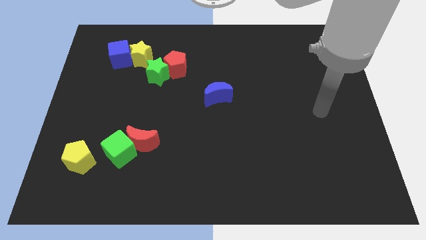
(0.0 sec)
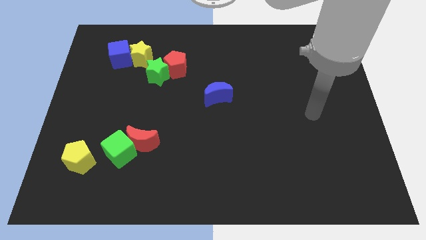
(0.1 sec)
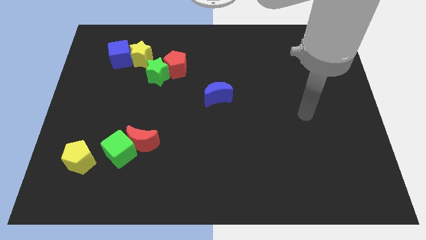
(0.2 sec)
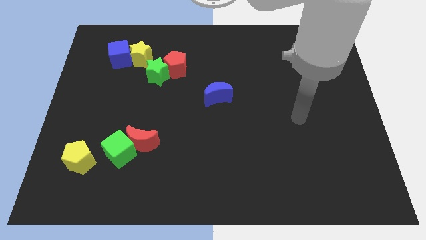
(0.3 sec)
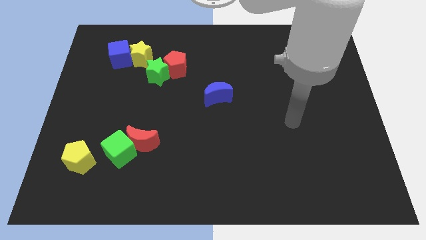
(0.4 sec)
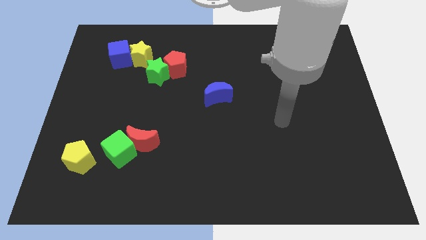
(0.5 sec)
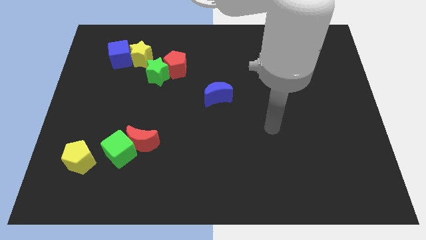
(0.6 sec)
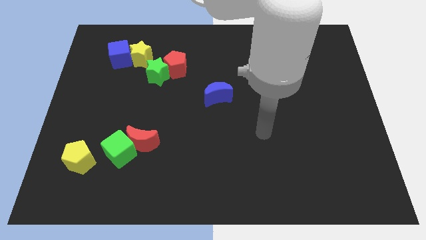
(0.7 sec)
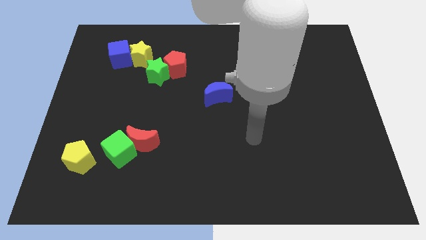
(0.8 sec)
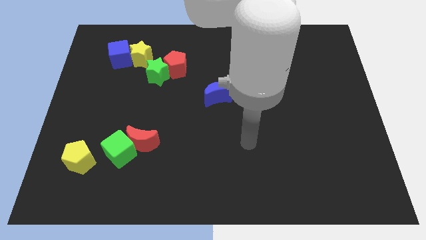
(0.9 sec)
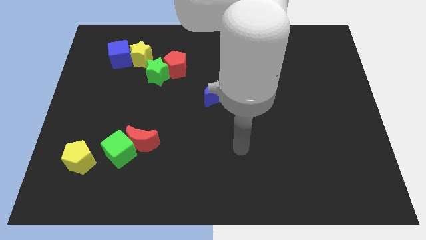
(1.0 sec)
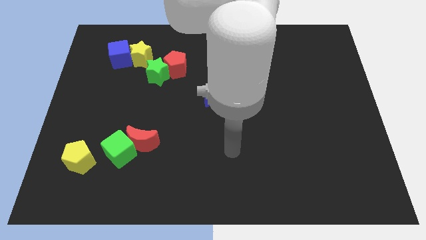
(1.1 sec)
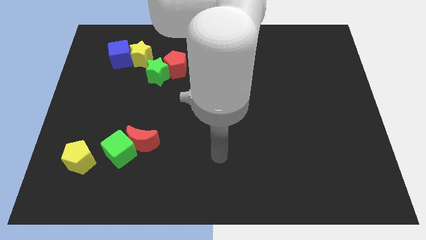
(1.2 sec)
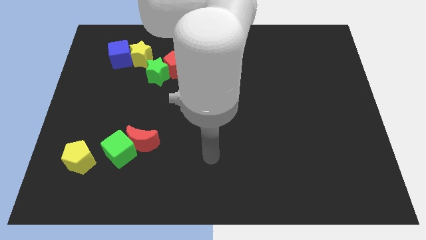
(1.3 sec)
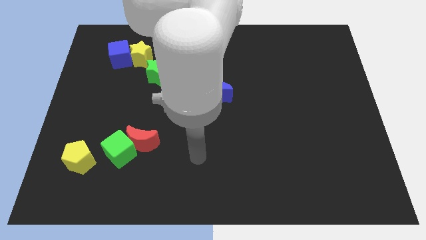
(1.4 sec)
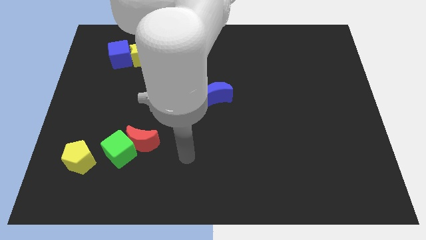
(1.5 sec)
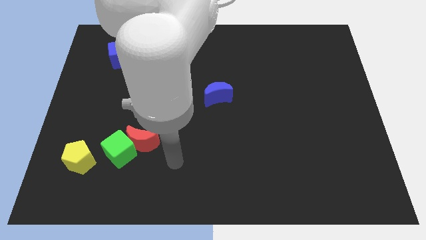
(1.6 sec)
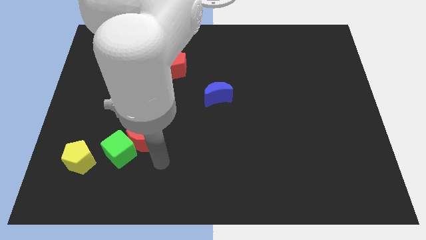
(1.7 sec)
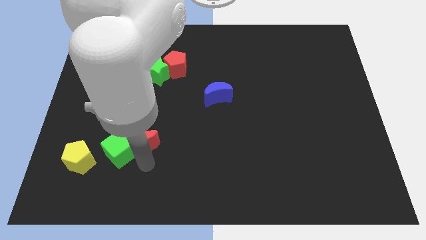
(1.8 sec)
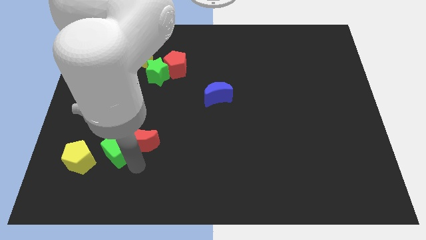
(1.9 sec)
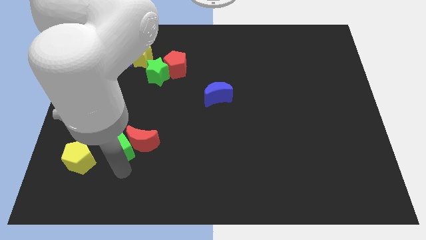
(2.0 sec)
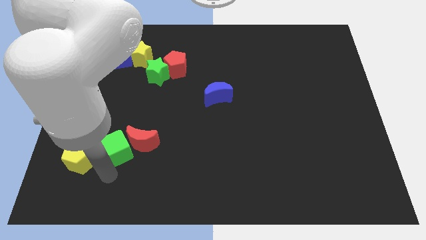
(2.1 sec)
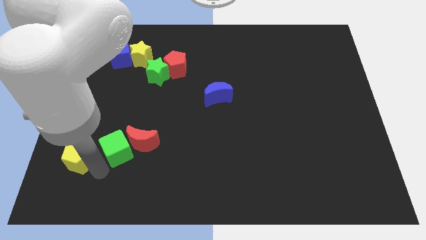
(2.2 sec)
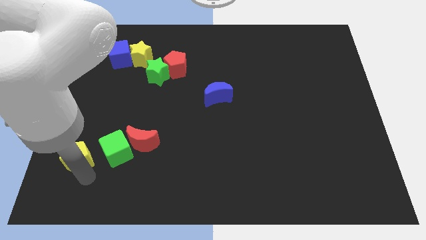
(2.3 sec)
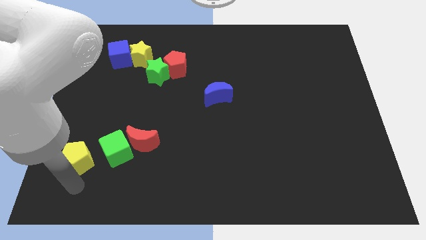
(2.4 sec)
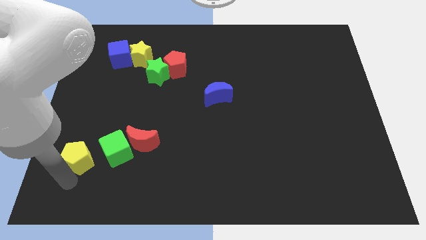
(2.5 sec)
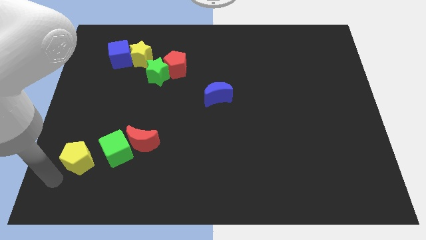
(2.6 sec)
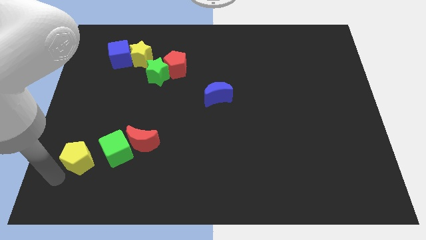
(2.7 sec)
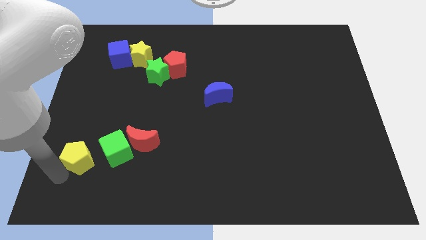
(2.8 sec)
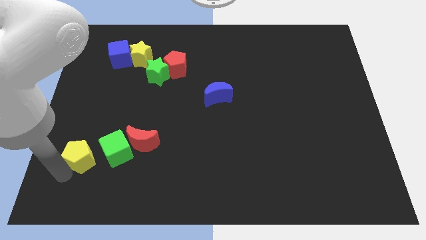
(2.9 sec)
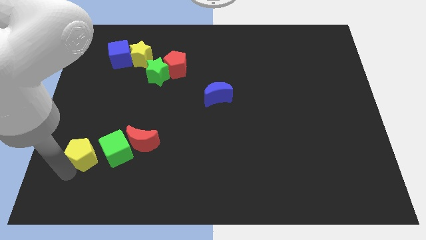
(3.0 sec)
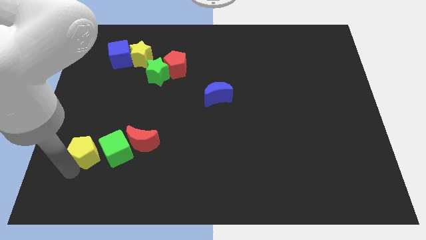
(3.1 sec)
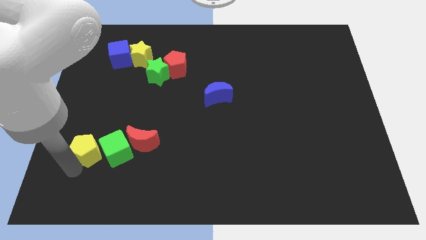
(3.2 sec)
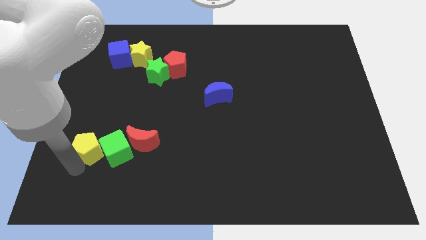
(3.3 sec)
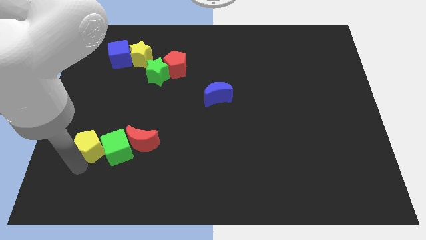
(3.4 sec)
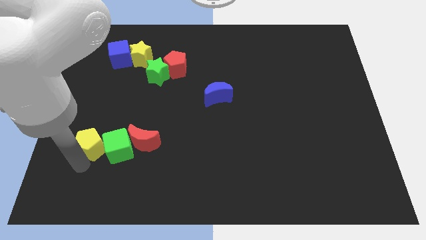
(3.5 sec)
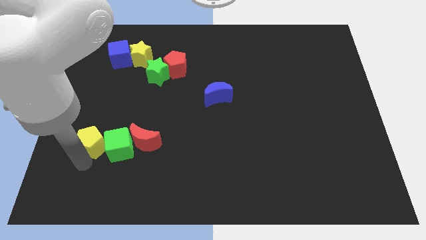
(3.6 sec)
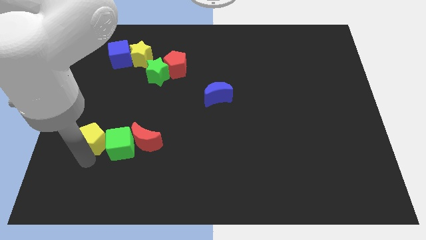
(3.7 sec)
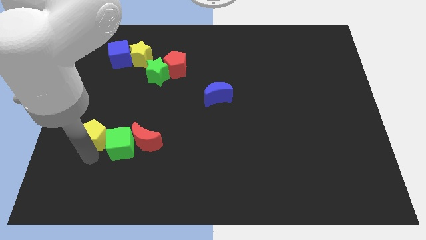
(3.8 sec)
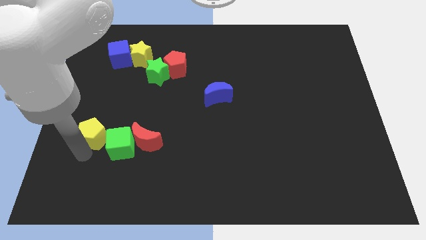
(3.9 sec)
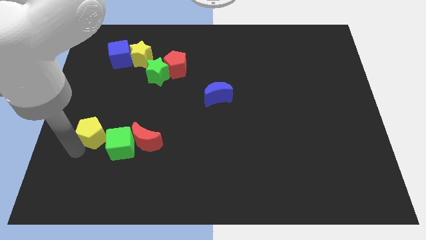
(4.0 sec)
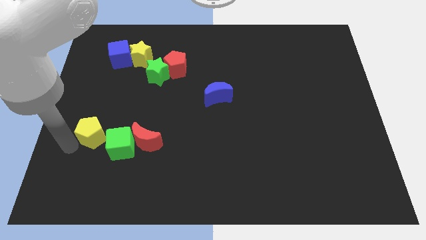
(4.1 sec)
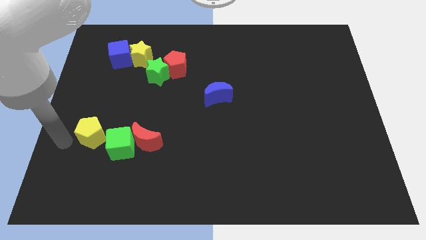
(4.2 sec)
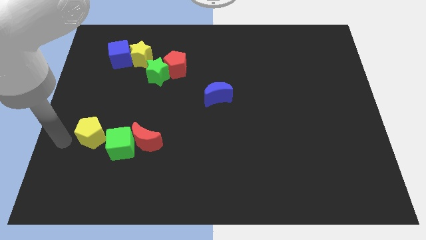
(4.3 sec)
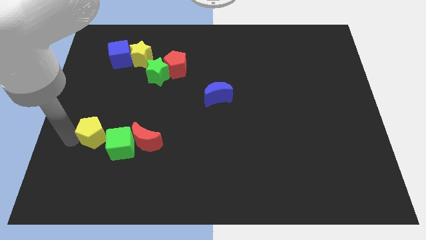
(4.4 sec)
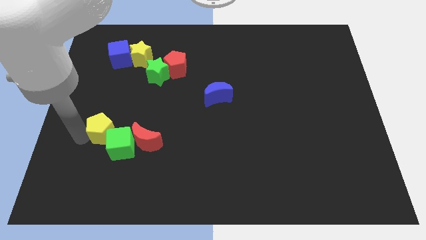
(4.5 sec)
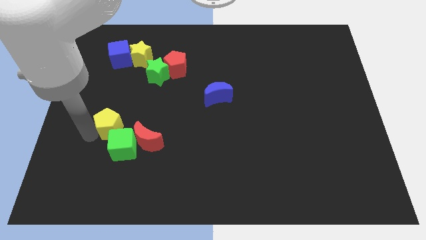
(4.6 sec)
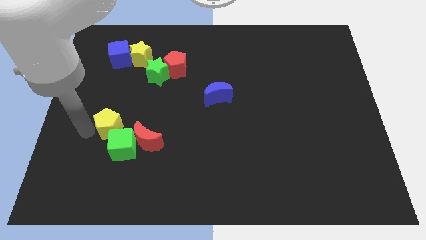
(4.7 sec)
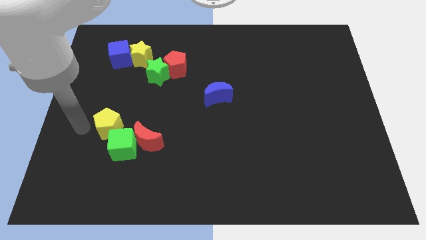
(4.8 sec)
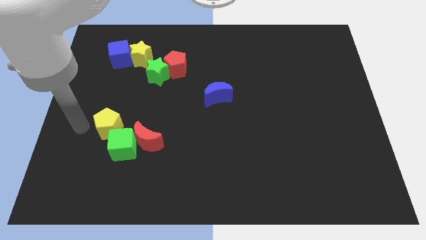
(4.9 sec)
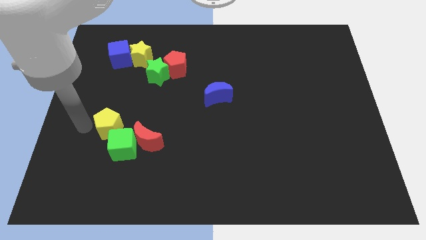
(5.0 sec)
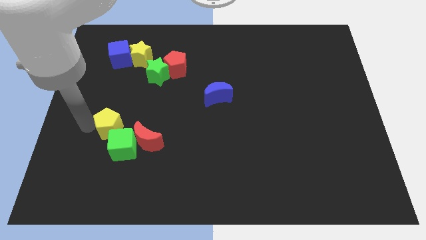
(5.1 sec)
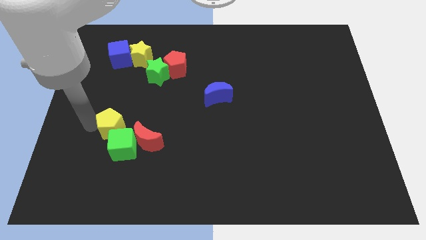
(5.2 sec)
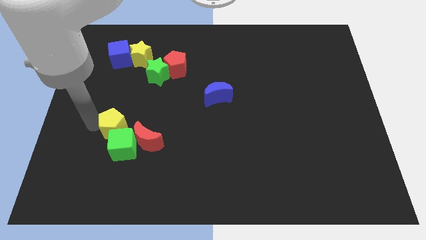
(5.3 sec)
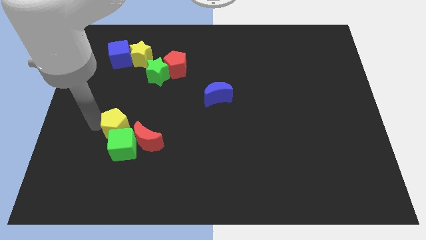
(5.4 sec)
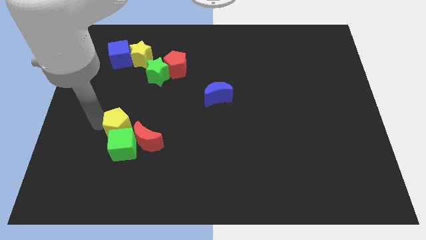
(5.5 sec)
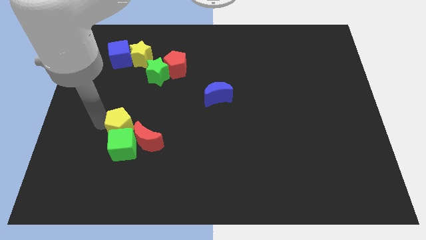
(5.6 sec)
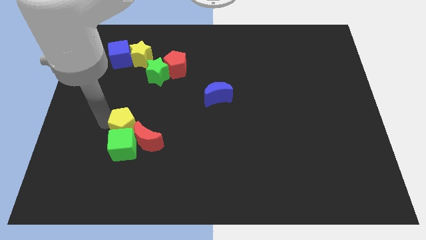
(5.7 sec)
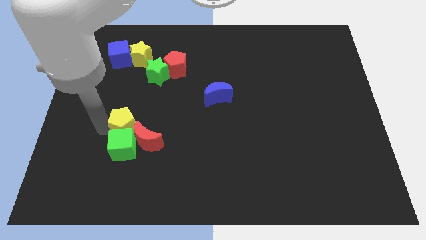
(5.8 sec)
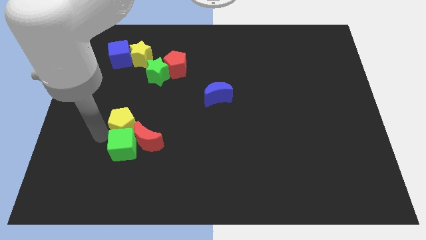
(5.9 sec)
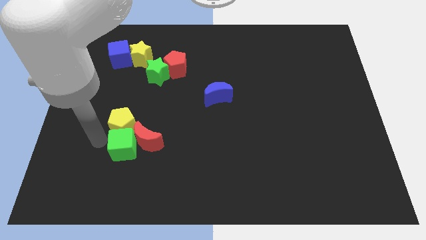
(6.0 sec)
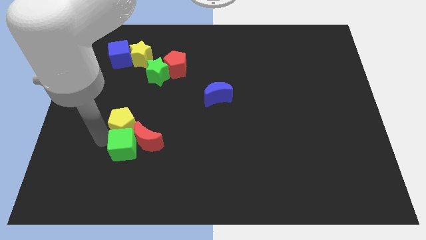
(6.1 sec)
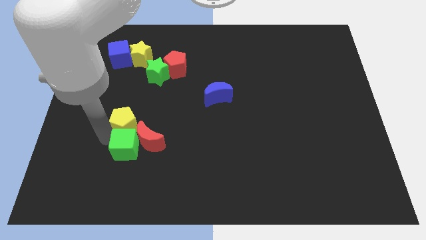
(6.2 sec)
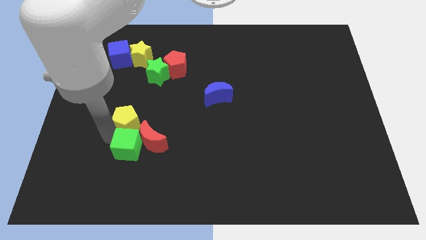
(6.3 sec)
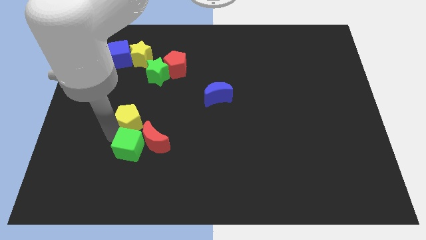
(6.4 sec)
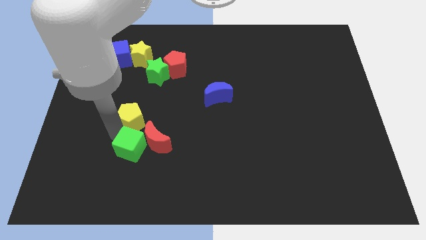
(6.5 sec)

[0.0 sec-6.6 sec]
slide the yellow pentagon to the bottom side of the green star

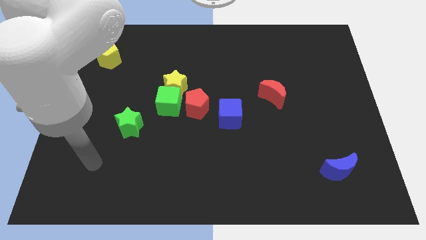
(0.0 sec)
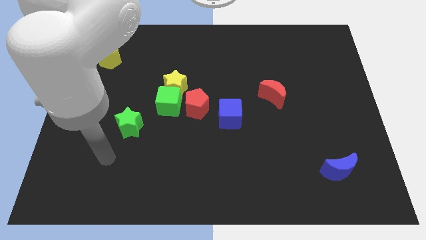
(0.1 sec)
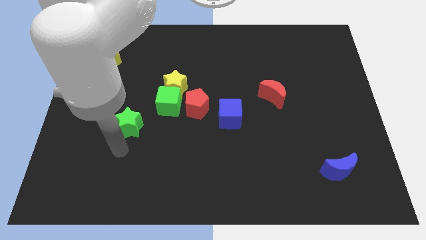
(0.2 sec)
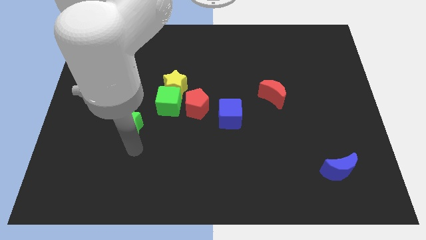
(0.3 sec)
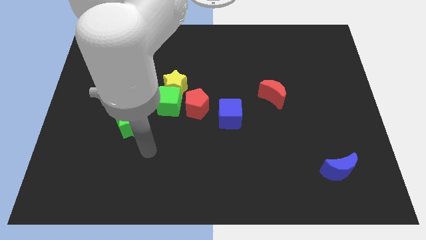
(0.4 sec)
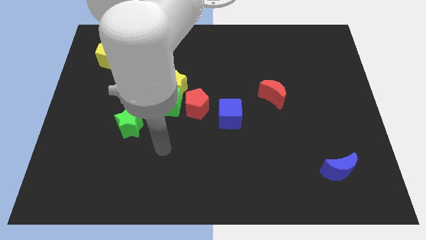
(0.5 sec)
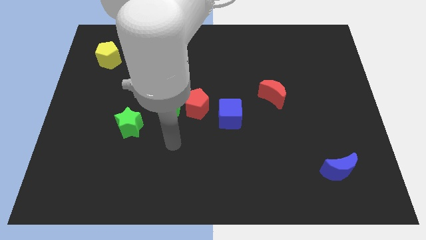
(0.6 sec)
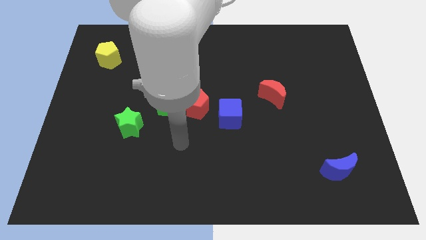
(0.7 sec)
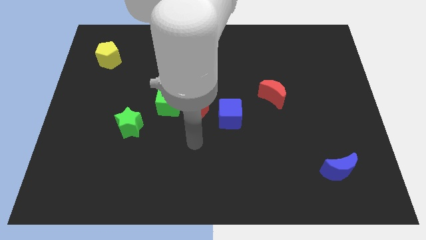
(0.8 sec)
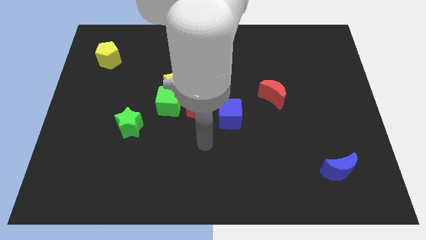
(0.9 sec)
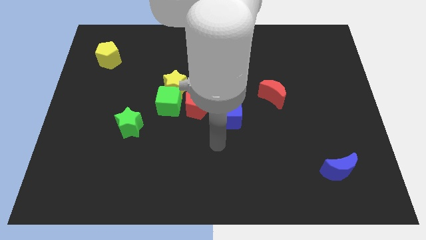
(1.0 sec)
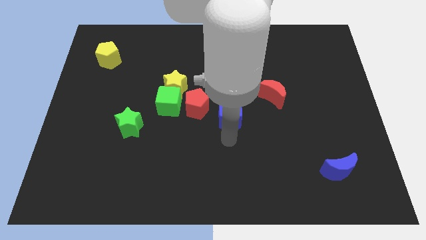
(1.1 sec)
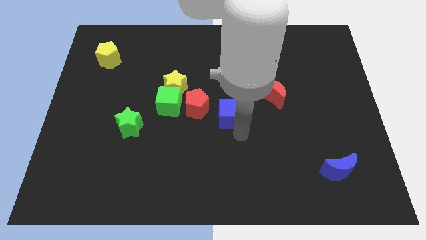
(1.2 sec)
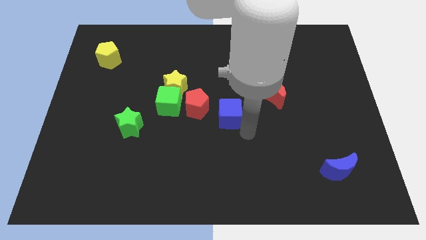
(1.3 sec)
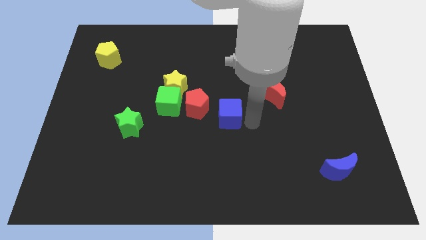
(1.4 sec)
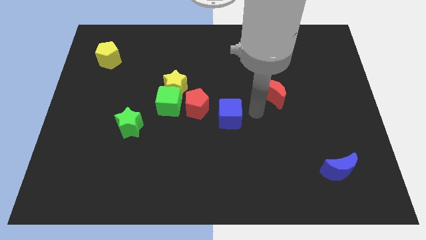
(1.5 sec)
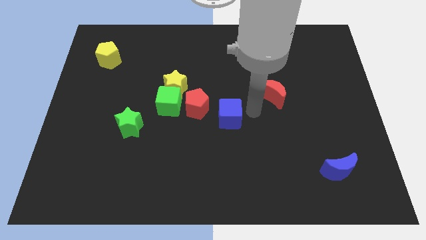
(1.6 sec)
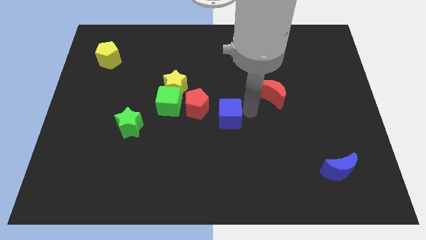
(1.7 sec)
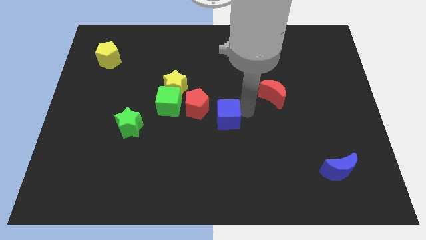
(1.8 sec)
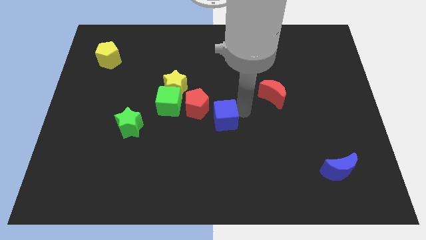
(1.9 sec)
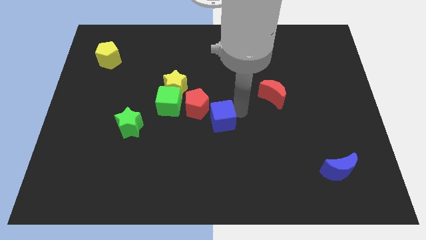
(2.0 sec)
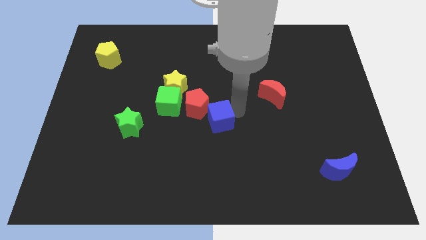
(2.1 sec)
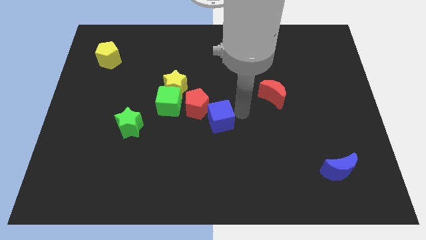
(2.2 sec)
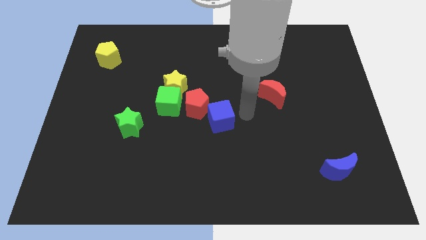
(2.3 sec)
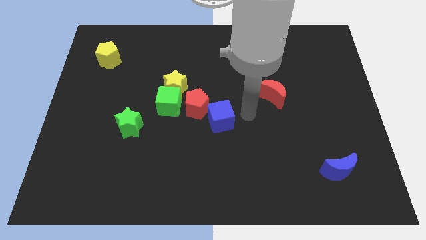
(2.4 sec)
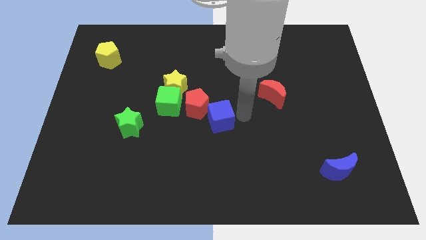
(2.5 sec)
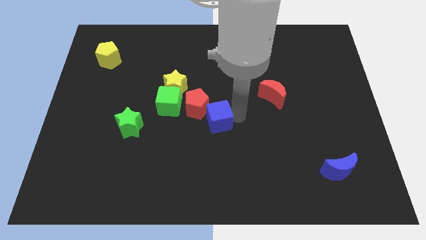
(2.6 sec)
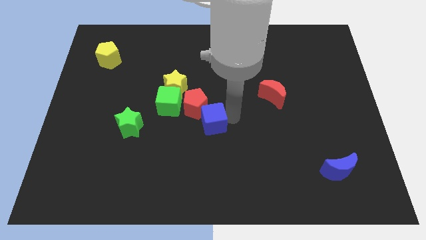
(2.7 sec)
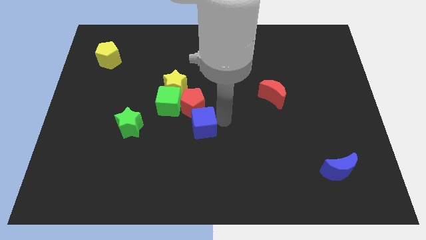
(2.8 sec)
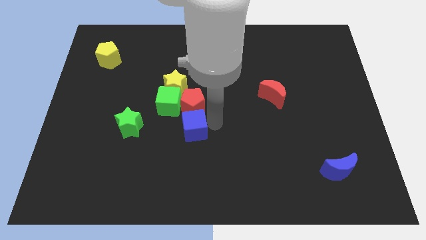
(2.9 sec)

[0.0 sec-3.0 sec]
move the blue cube to the bottom left of the red pentagon
